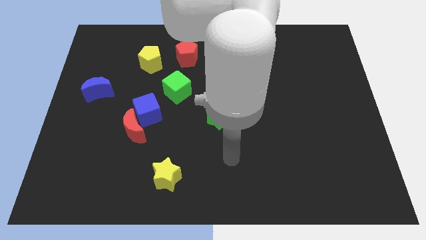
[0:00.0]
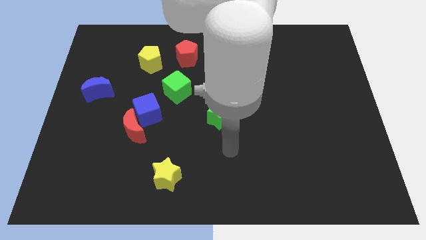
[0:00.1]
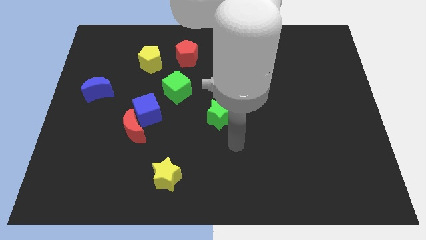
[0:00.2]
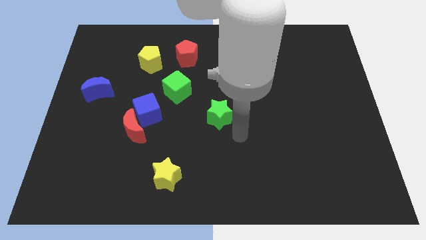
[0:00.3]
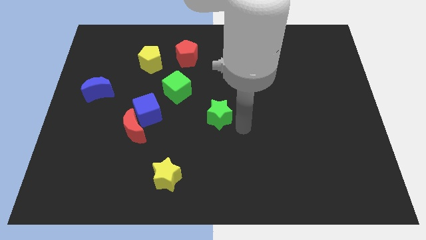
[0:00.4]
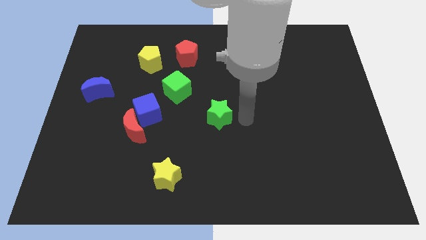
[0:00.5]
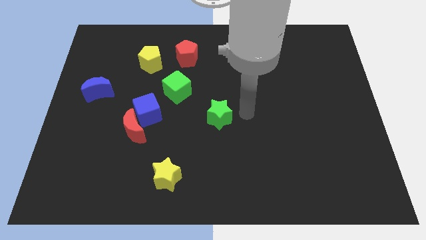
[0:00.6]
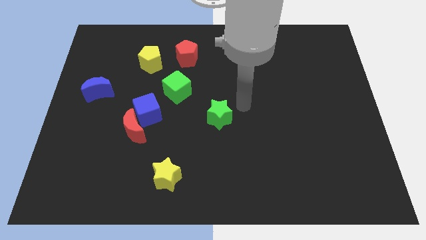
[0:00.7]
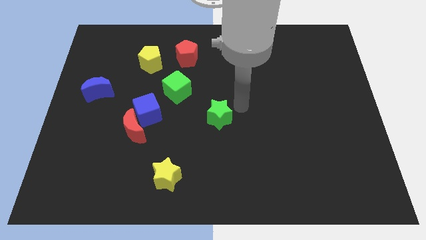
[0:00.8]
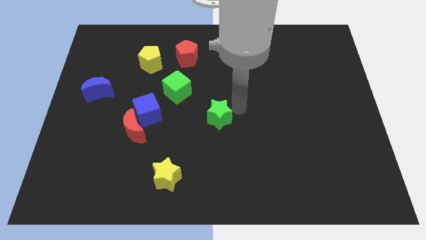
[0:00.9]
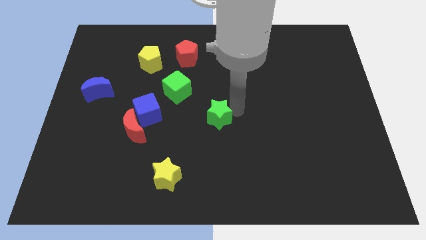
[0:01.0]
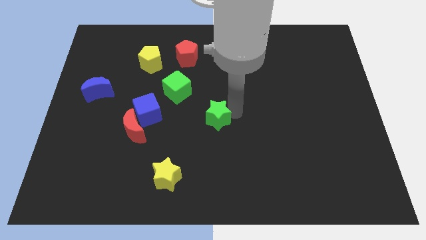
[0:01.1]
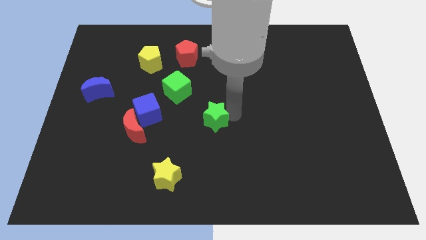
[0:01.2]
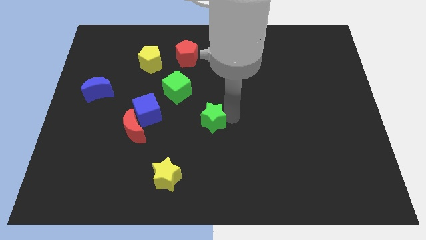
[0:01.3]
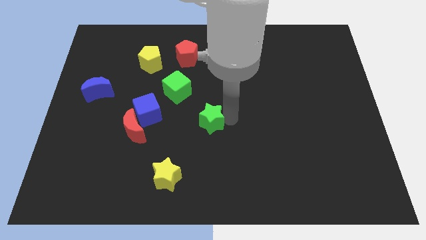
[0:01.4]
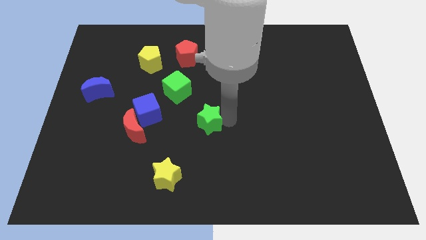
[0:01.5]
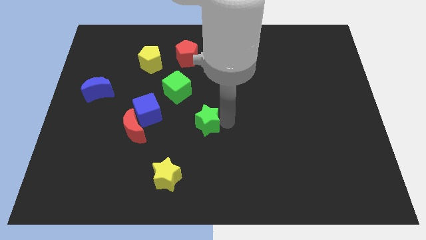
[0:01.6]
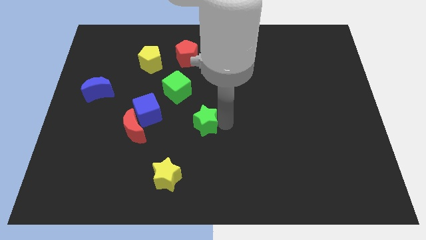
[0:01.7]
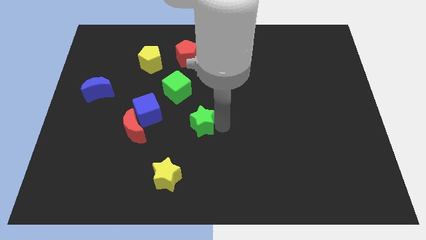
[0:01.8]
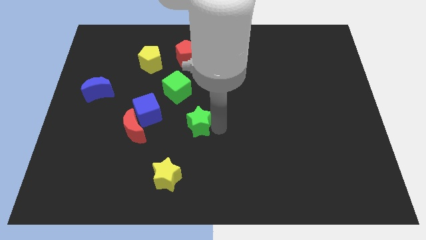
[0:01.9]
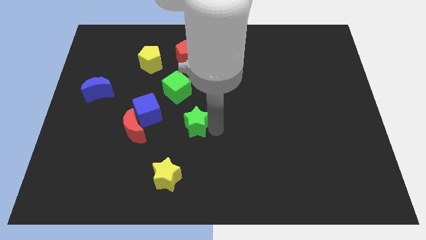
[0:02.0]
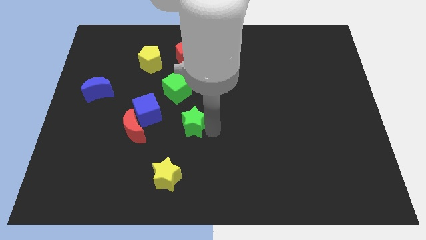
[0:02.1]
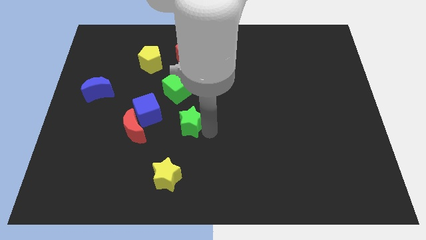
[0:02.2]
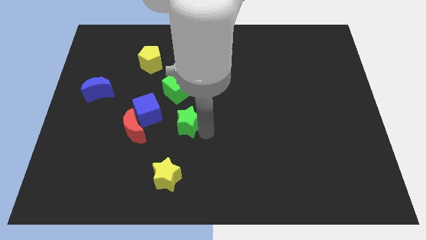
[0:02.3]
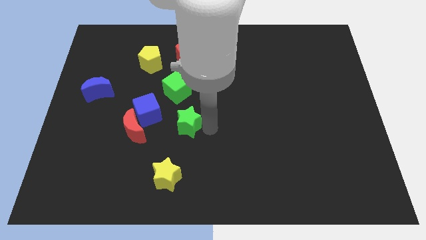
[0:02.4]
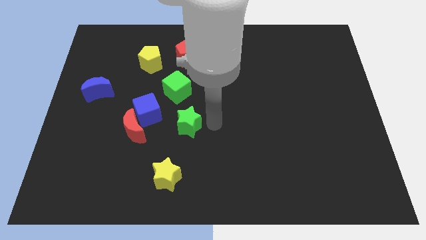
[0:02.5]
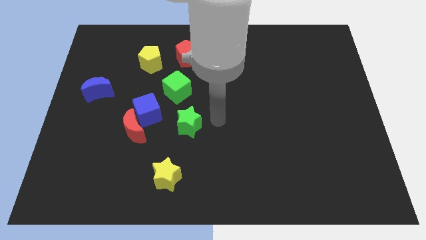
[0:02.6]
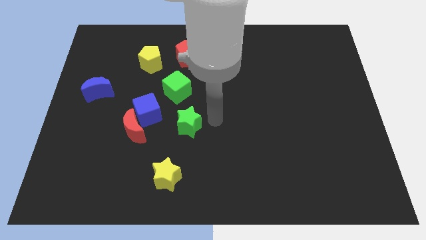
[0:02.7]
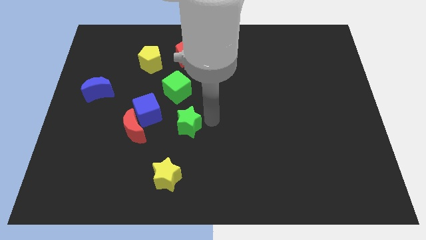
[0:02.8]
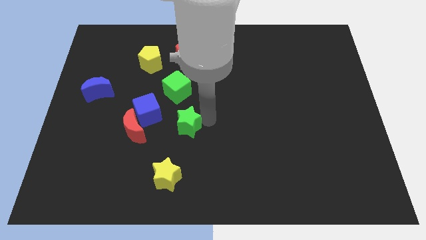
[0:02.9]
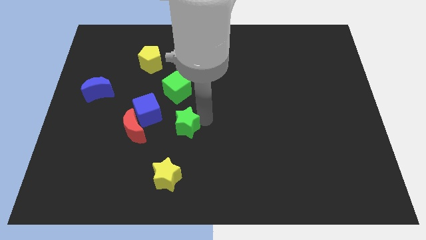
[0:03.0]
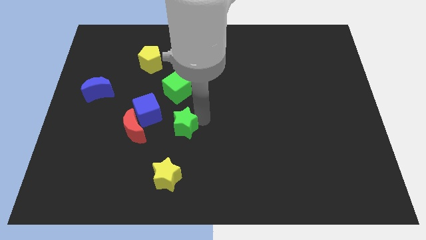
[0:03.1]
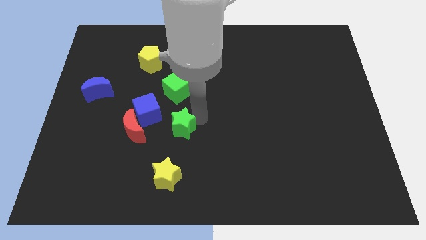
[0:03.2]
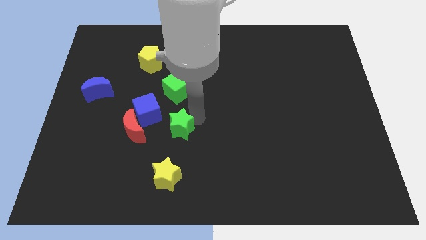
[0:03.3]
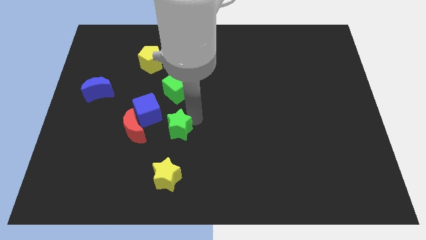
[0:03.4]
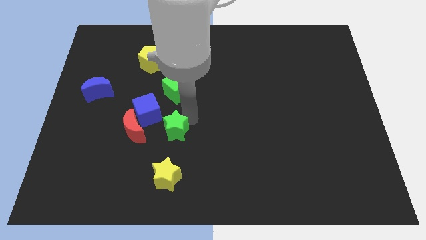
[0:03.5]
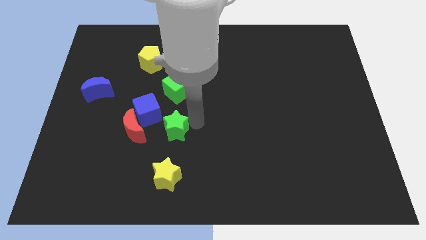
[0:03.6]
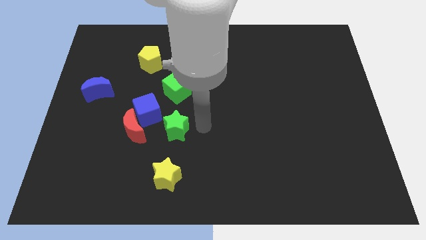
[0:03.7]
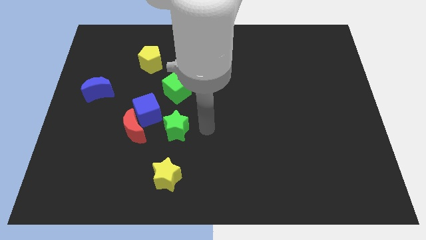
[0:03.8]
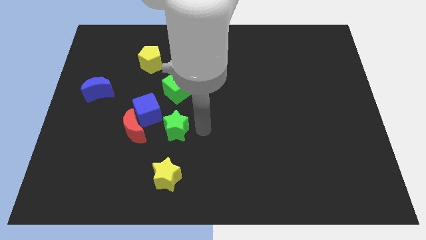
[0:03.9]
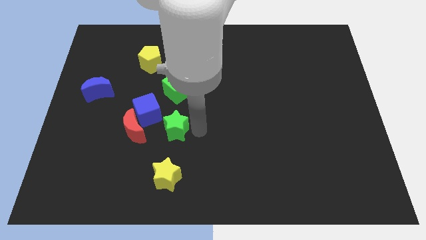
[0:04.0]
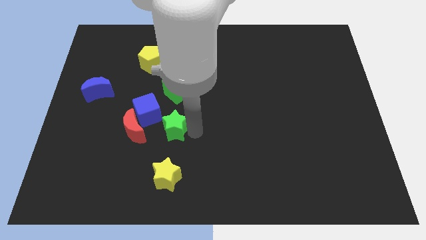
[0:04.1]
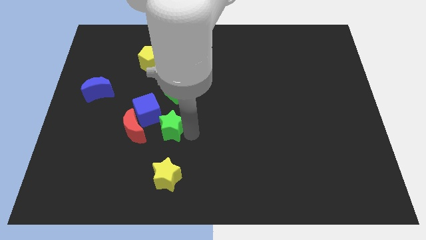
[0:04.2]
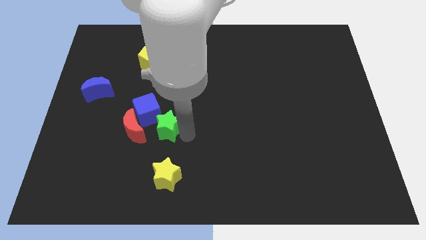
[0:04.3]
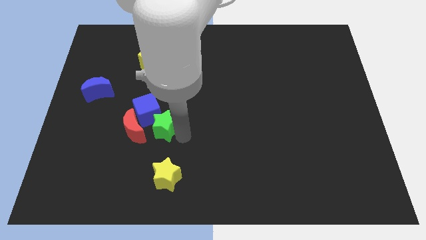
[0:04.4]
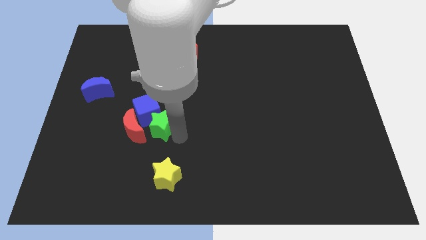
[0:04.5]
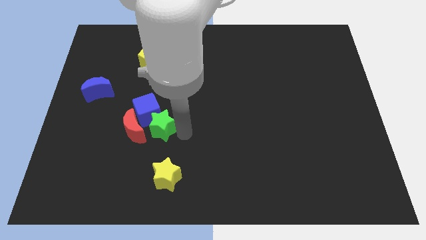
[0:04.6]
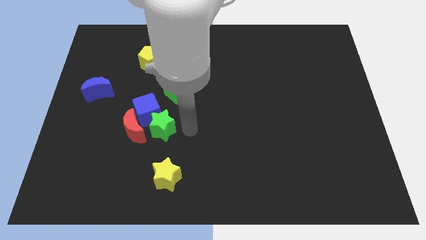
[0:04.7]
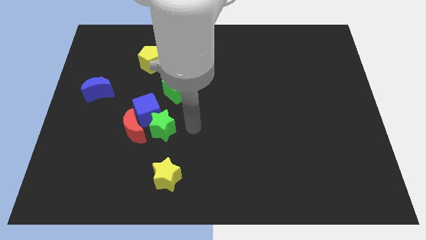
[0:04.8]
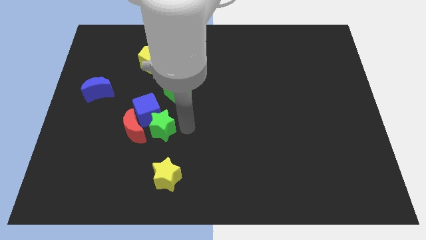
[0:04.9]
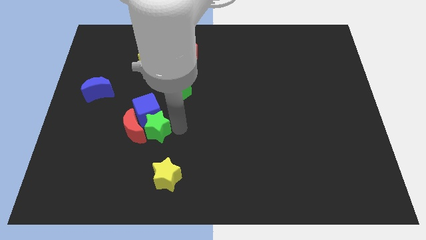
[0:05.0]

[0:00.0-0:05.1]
push the green star next to the red moon

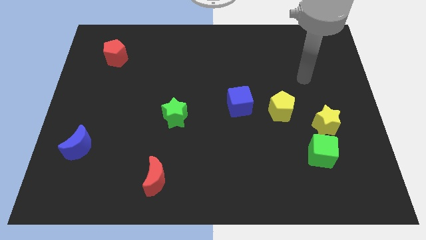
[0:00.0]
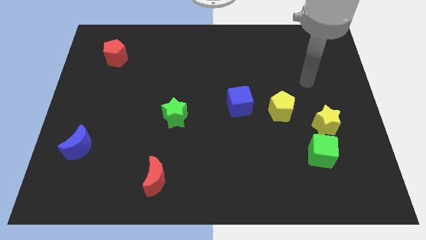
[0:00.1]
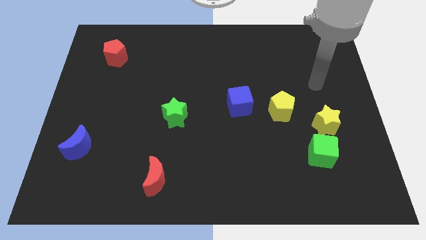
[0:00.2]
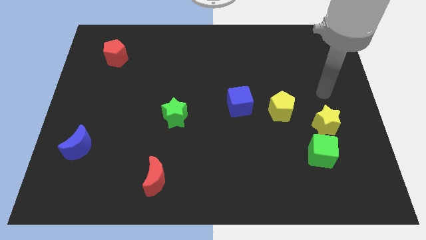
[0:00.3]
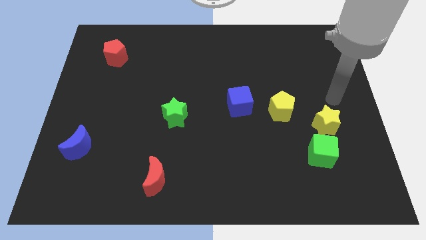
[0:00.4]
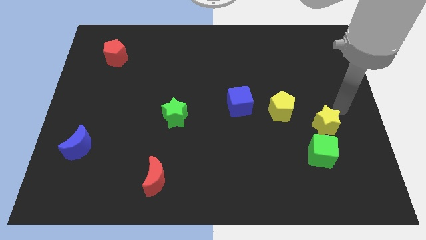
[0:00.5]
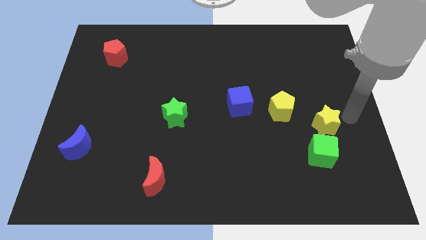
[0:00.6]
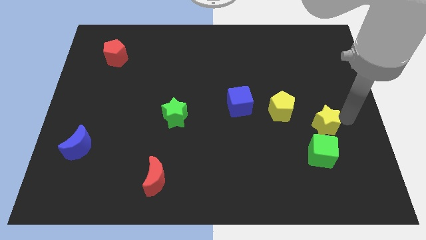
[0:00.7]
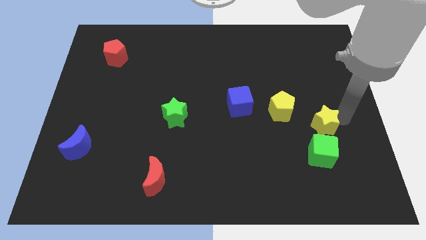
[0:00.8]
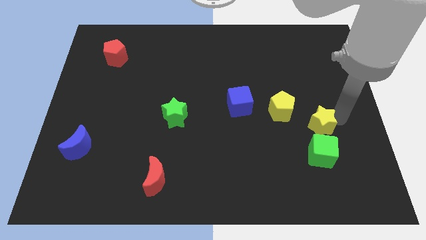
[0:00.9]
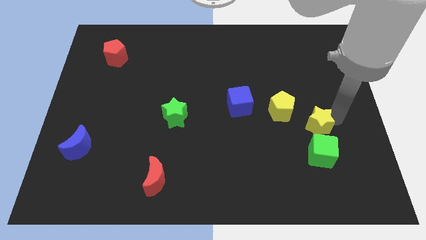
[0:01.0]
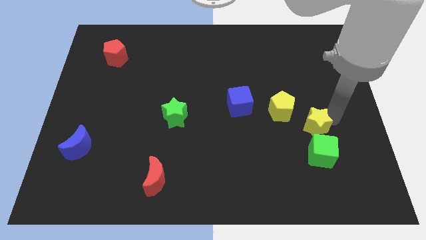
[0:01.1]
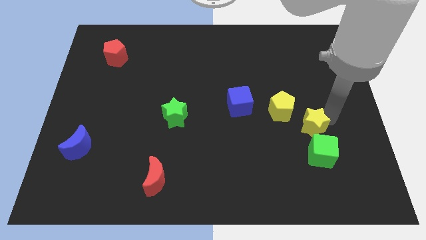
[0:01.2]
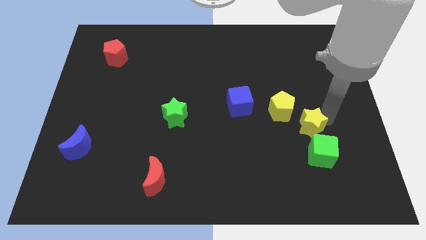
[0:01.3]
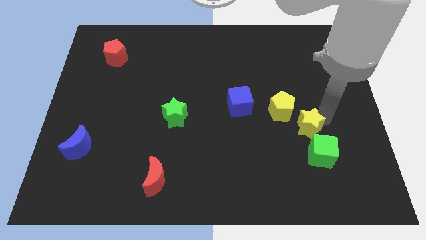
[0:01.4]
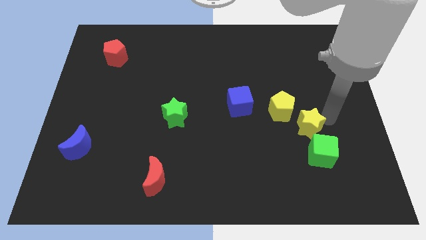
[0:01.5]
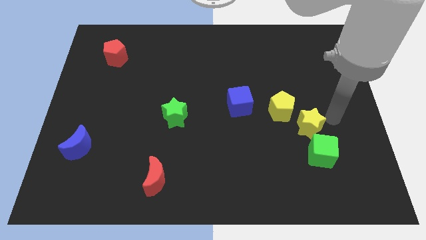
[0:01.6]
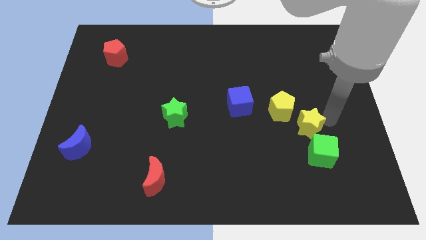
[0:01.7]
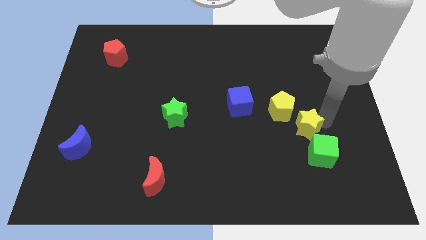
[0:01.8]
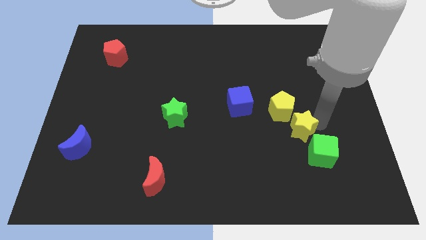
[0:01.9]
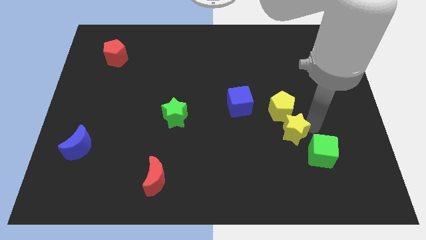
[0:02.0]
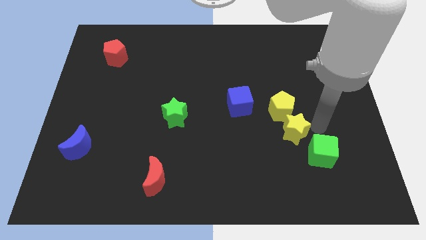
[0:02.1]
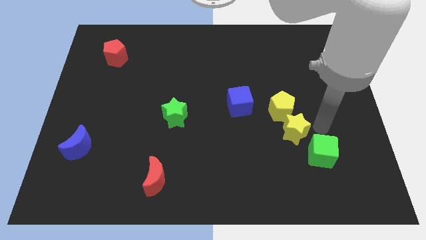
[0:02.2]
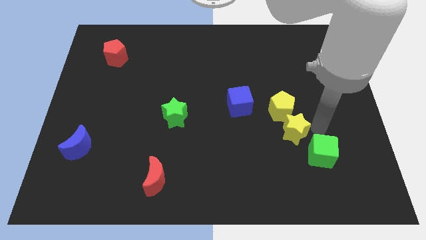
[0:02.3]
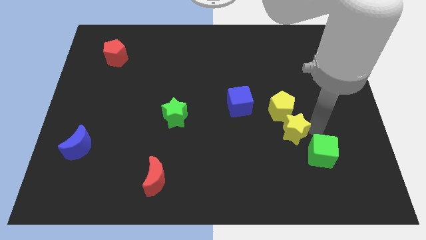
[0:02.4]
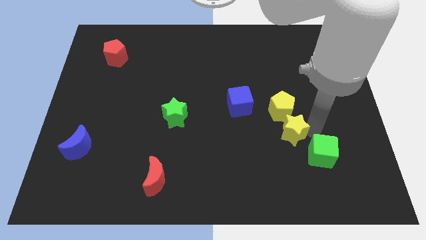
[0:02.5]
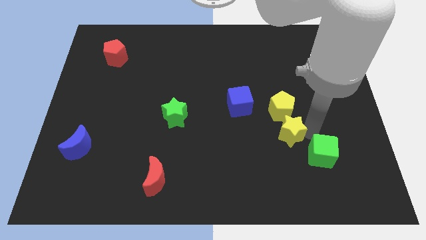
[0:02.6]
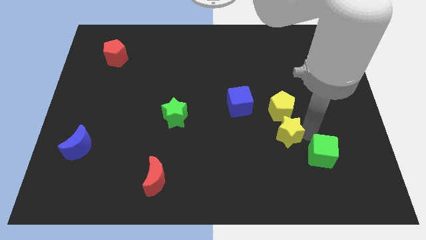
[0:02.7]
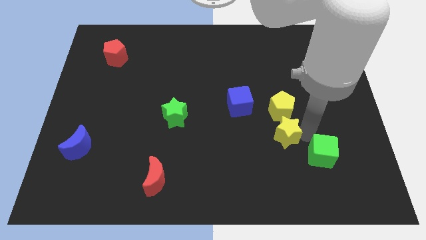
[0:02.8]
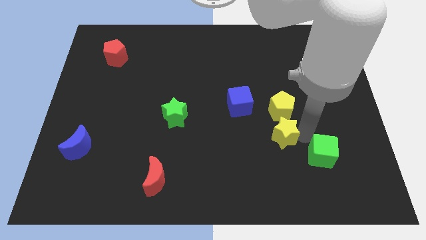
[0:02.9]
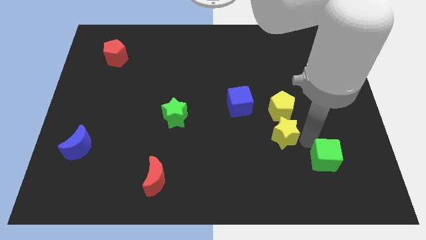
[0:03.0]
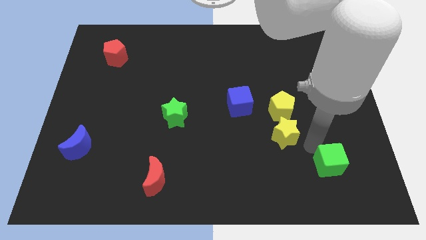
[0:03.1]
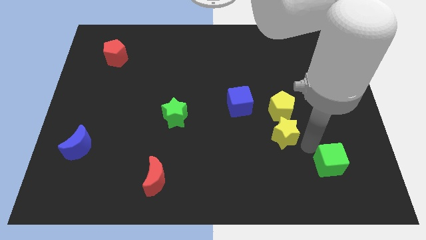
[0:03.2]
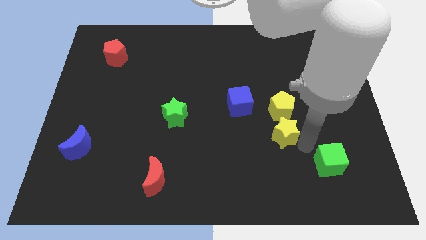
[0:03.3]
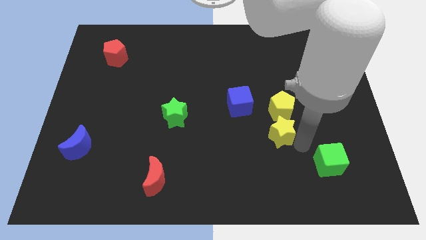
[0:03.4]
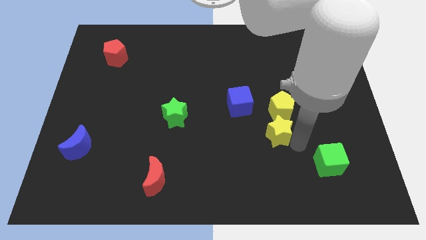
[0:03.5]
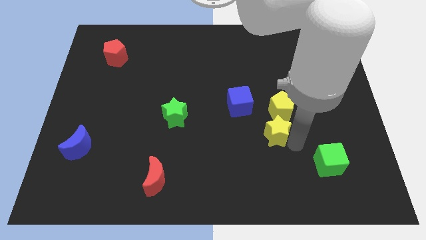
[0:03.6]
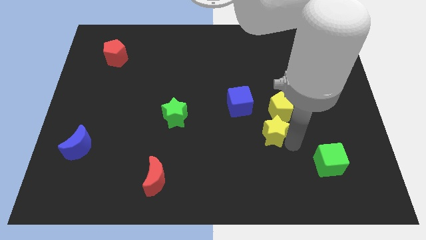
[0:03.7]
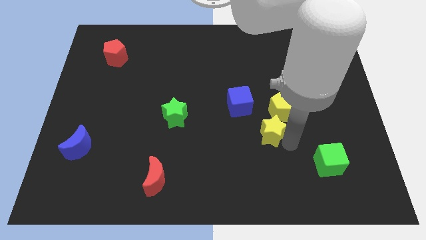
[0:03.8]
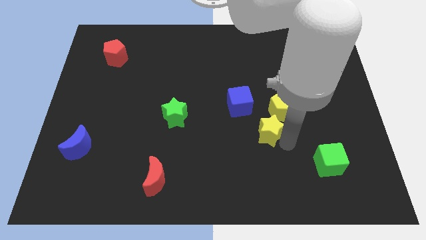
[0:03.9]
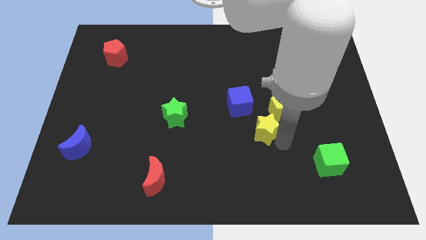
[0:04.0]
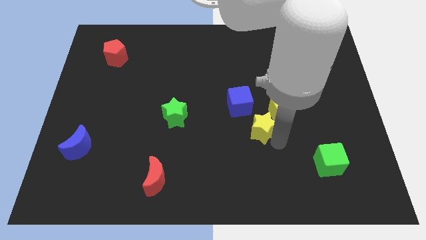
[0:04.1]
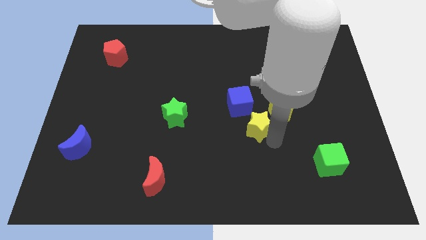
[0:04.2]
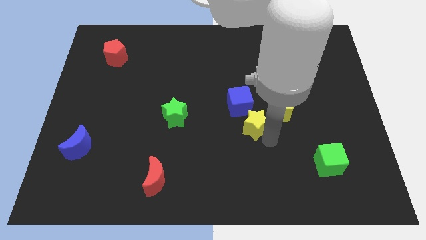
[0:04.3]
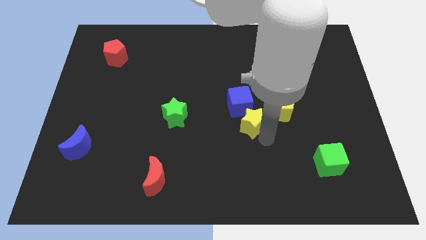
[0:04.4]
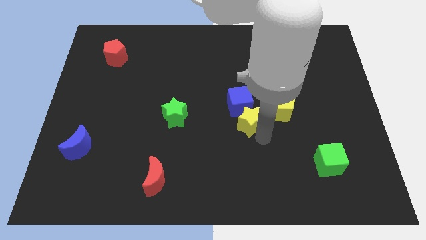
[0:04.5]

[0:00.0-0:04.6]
put the yellow star towards the blue cube
